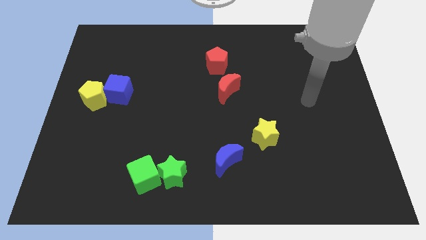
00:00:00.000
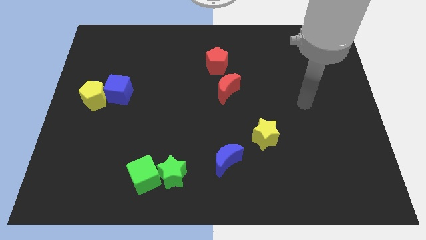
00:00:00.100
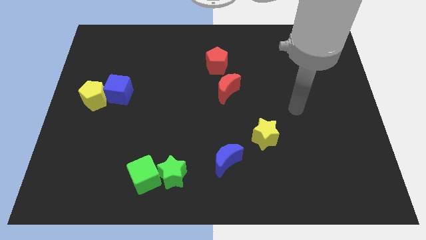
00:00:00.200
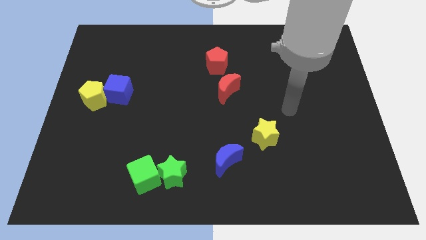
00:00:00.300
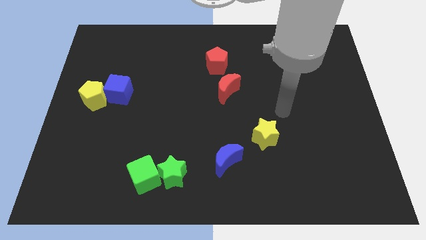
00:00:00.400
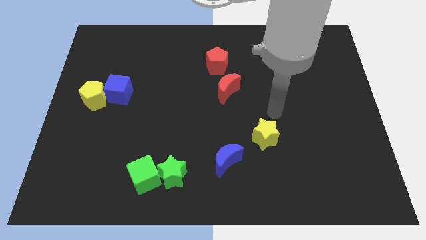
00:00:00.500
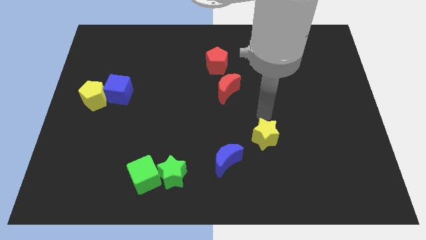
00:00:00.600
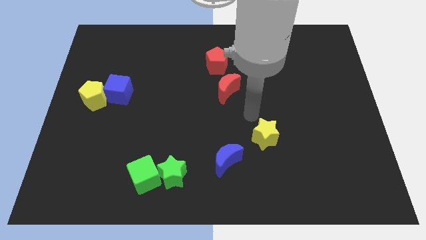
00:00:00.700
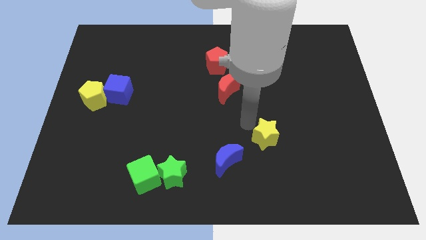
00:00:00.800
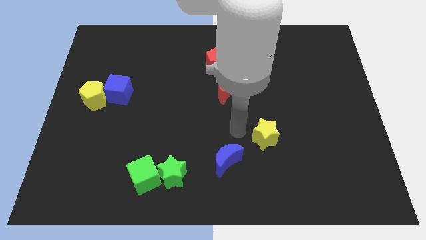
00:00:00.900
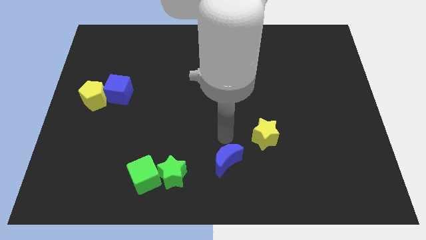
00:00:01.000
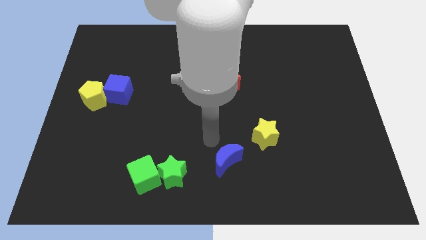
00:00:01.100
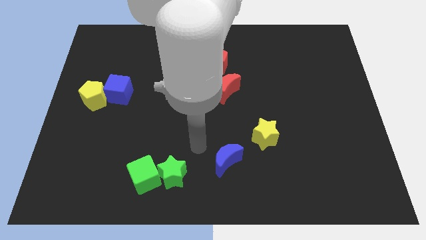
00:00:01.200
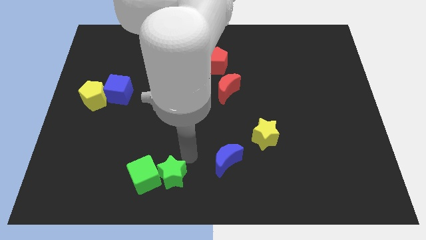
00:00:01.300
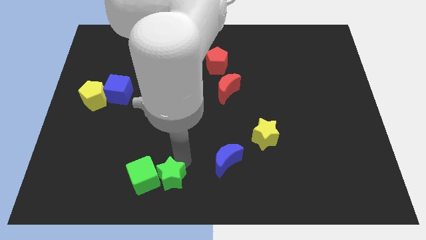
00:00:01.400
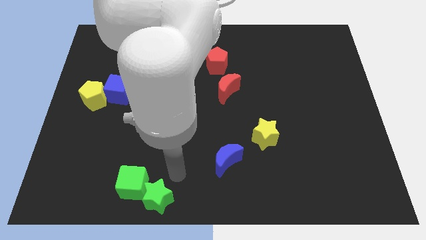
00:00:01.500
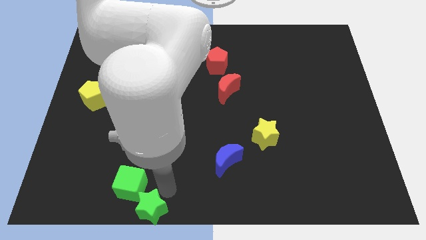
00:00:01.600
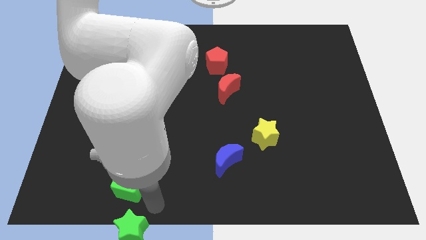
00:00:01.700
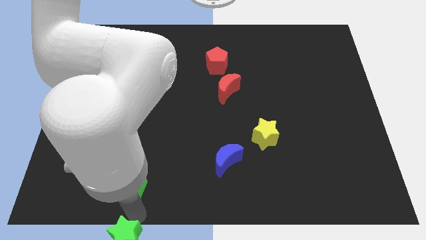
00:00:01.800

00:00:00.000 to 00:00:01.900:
separate the green cube from the green star

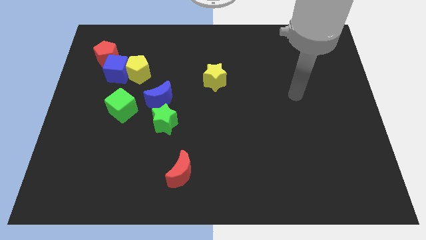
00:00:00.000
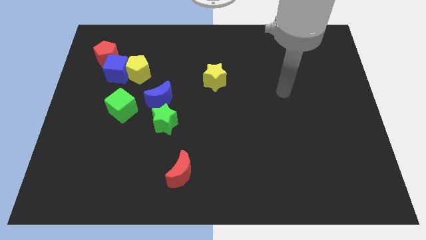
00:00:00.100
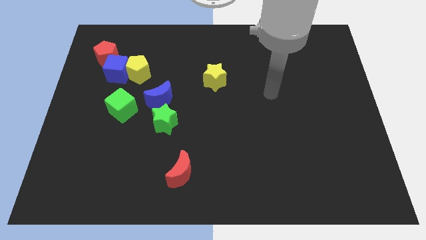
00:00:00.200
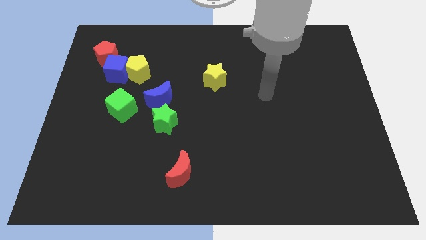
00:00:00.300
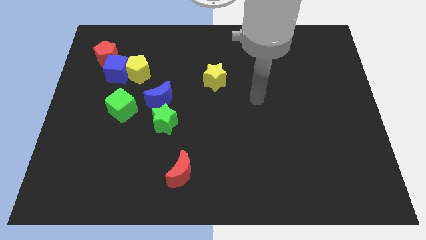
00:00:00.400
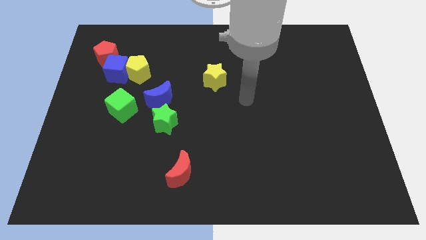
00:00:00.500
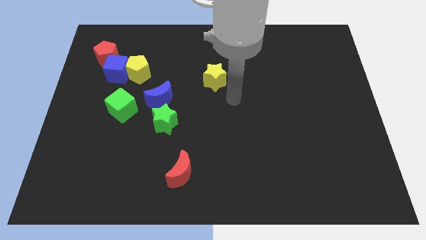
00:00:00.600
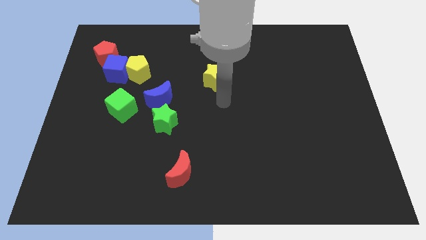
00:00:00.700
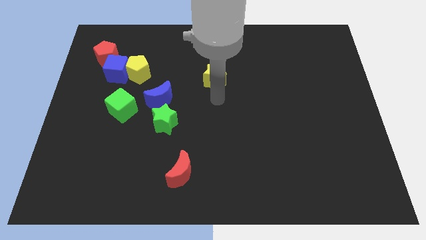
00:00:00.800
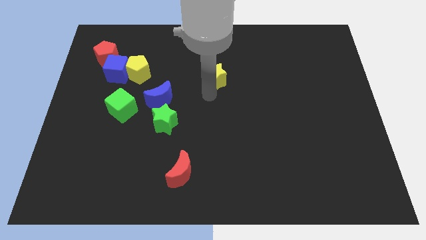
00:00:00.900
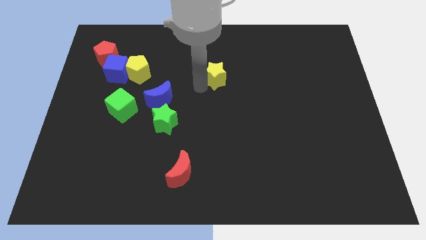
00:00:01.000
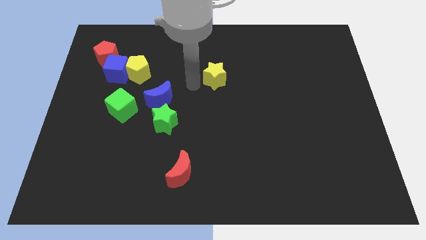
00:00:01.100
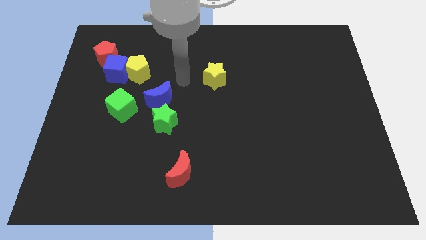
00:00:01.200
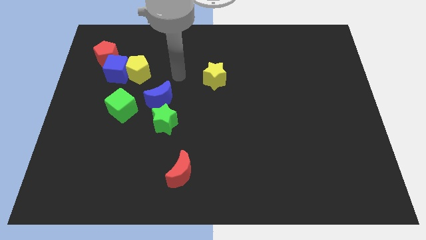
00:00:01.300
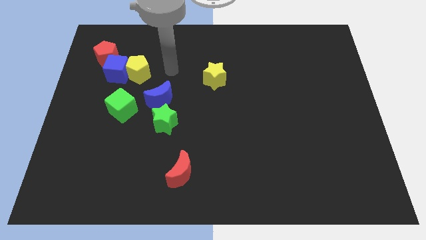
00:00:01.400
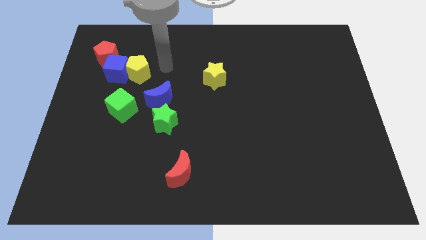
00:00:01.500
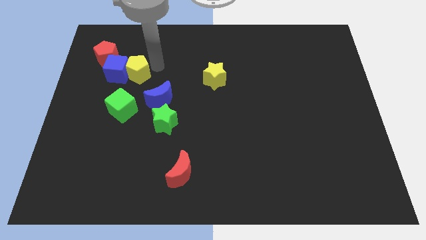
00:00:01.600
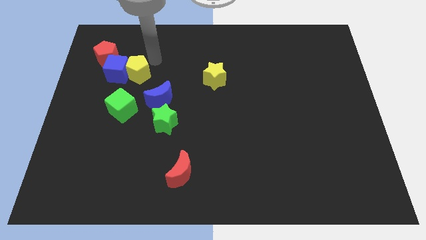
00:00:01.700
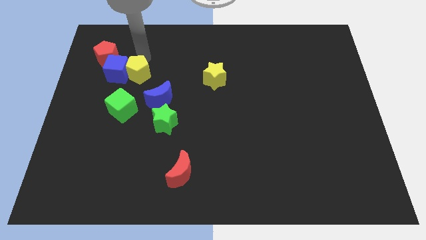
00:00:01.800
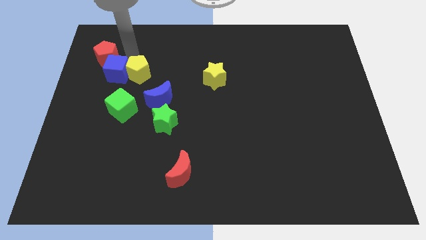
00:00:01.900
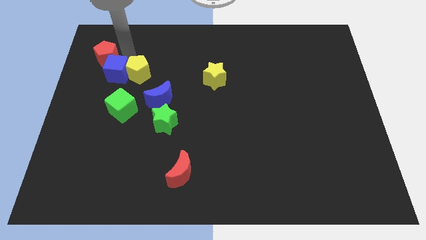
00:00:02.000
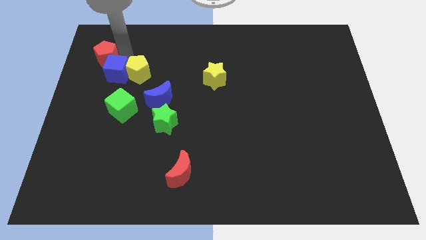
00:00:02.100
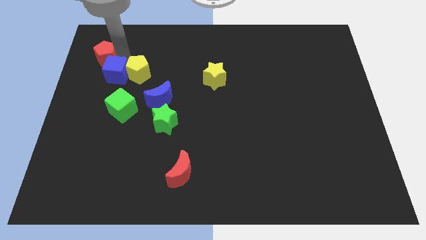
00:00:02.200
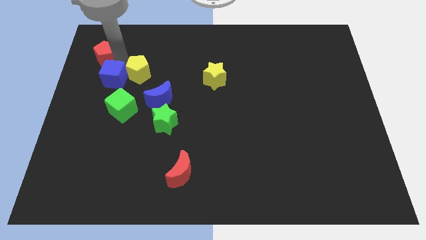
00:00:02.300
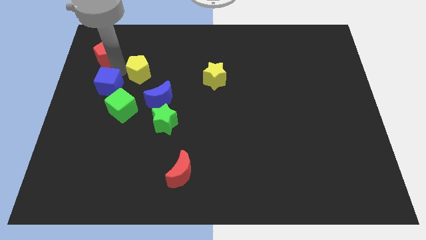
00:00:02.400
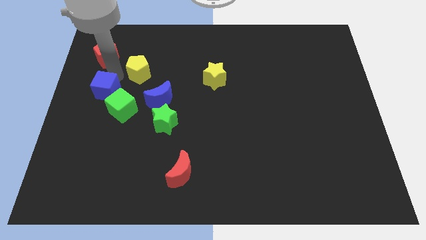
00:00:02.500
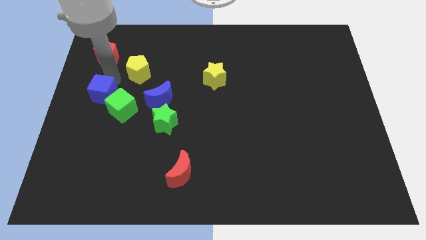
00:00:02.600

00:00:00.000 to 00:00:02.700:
move the blue cube away from the yellow pentagon and red pentagon

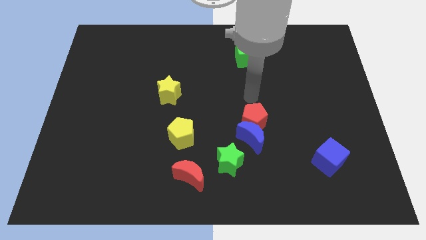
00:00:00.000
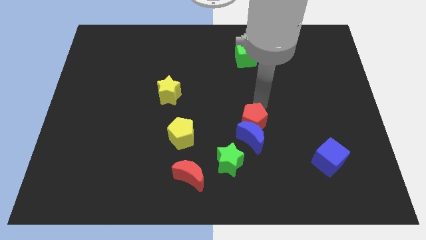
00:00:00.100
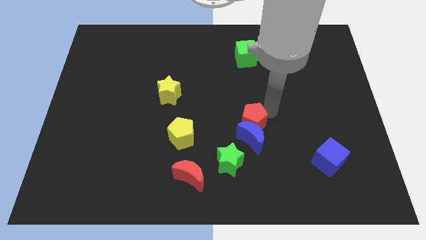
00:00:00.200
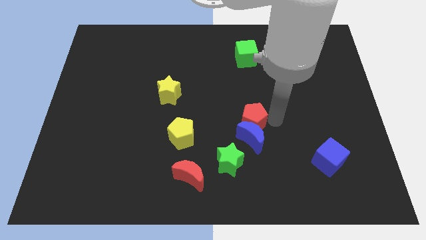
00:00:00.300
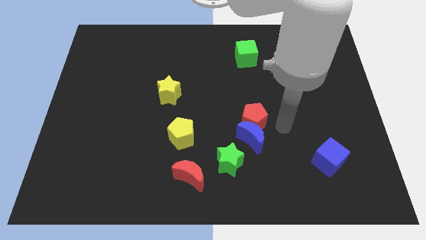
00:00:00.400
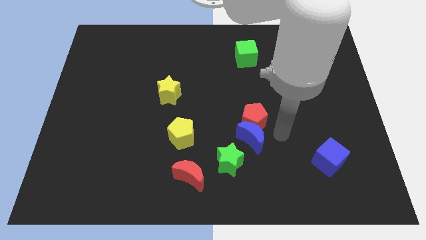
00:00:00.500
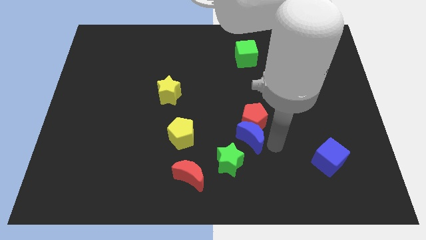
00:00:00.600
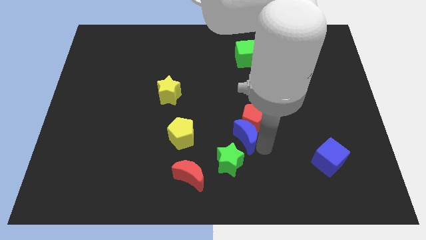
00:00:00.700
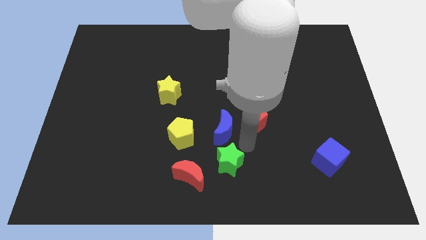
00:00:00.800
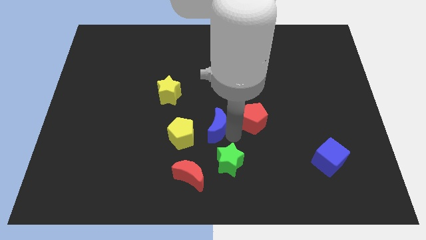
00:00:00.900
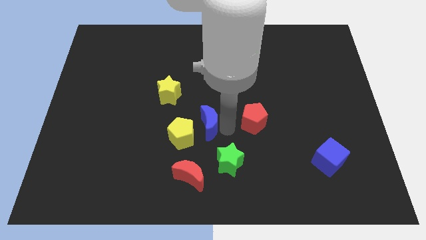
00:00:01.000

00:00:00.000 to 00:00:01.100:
pull the red pentagon apart from the blue moon

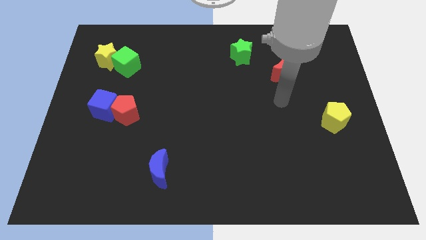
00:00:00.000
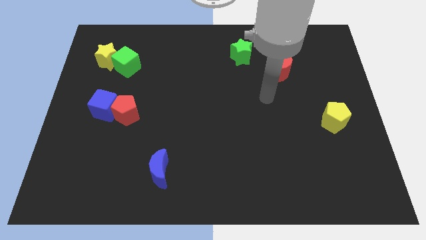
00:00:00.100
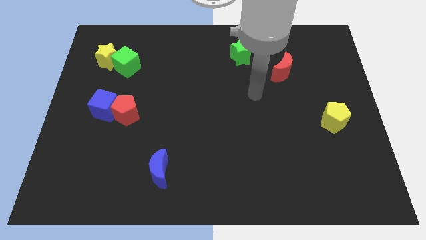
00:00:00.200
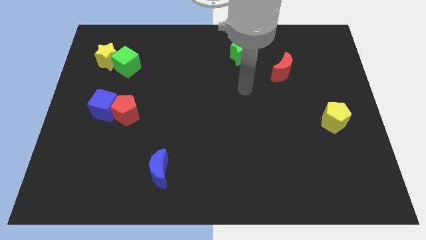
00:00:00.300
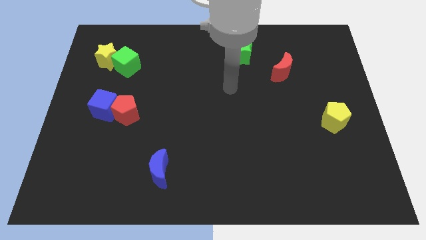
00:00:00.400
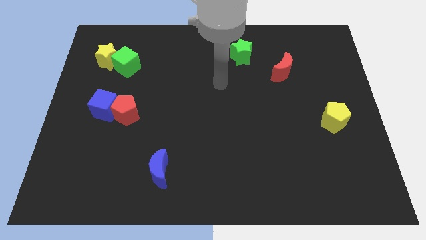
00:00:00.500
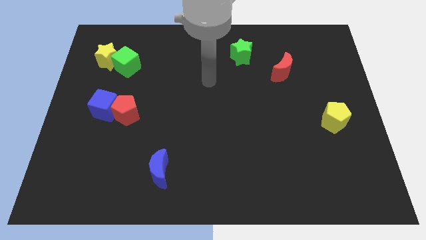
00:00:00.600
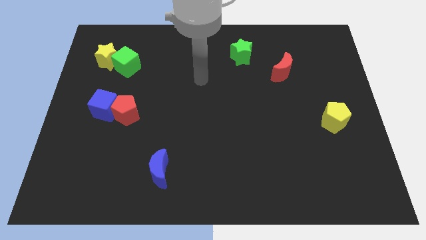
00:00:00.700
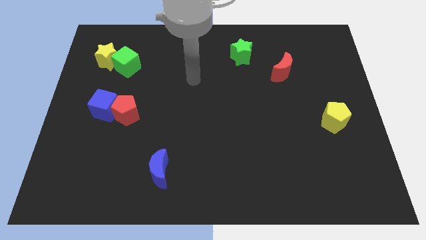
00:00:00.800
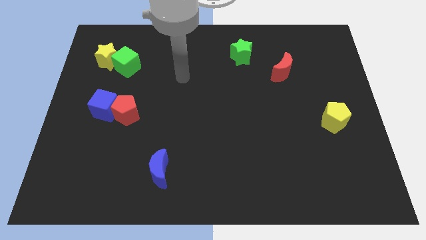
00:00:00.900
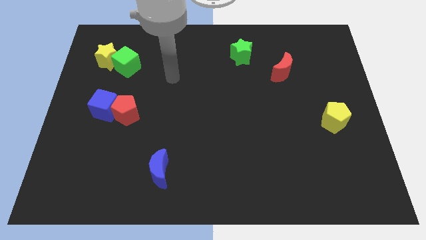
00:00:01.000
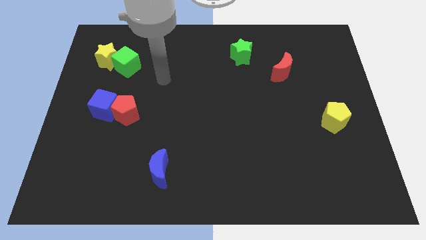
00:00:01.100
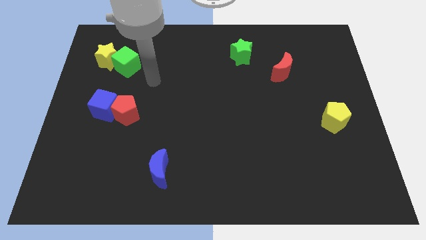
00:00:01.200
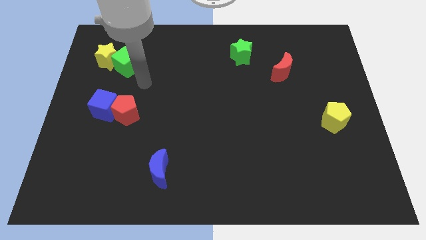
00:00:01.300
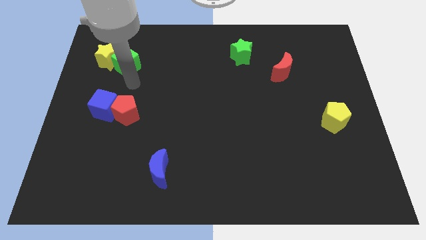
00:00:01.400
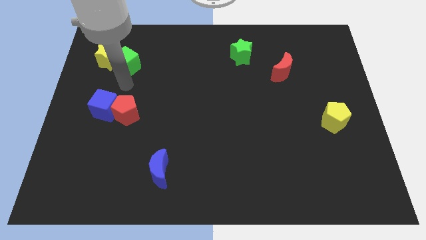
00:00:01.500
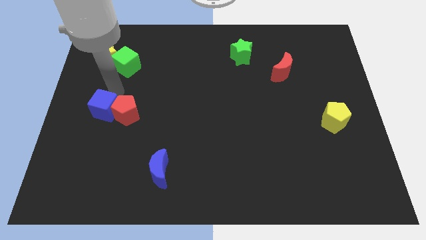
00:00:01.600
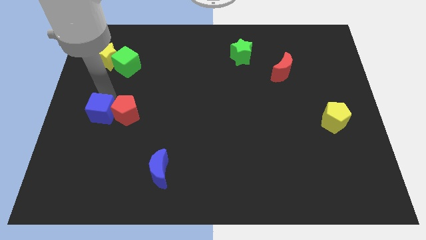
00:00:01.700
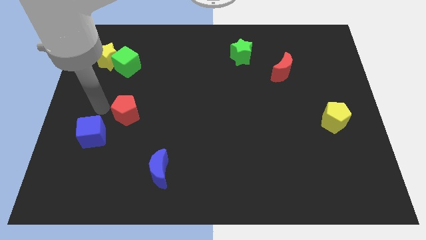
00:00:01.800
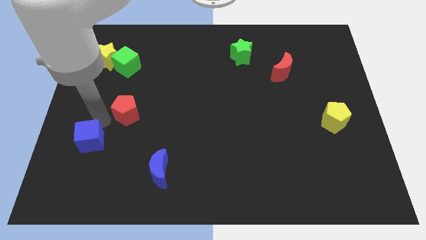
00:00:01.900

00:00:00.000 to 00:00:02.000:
separate the red pentagon from the blue cube

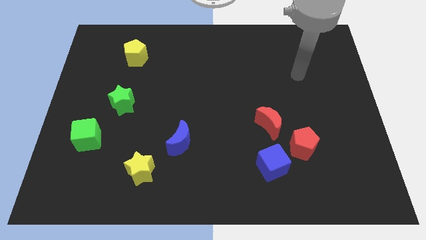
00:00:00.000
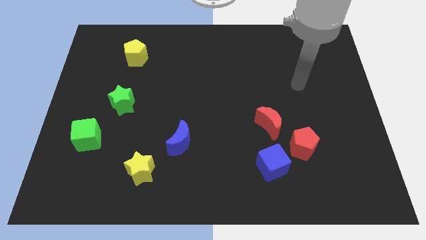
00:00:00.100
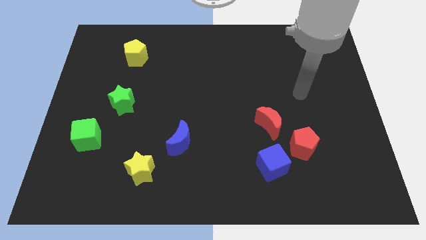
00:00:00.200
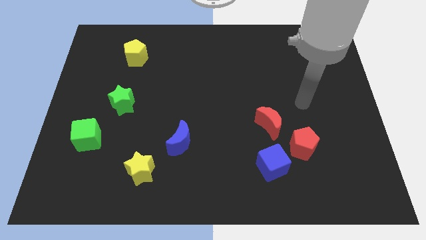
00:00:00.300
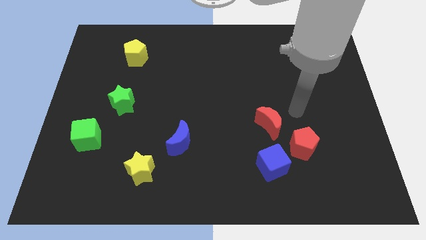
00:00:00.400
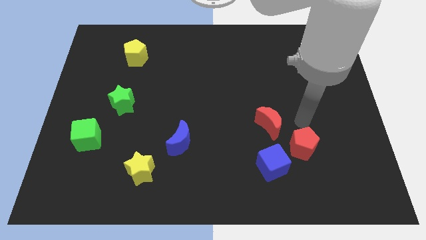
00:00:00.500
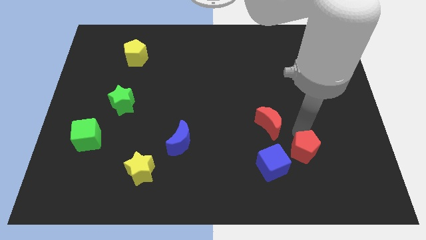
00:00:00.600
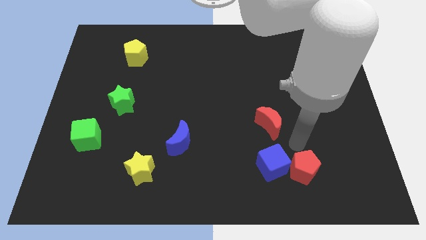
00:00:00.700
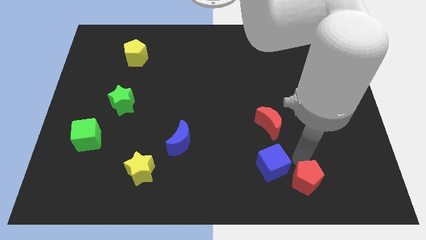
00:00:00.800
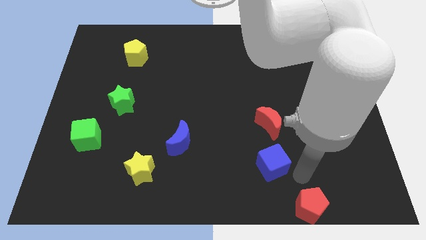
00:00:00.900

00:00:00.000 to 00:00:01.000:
pull the blue cube apart from the red pentagon

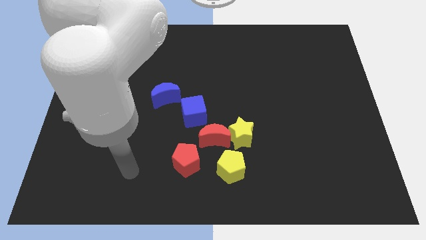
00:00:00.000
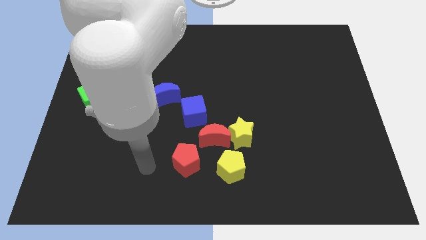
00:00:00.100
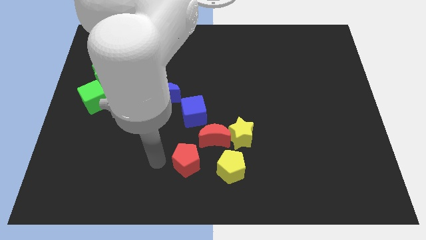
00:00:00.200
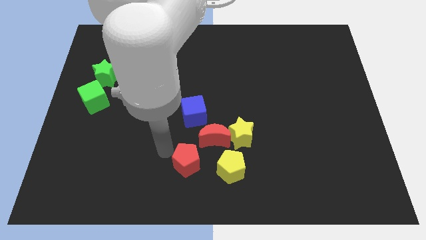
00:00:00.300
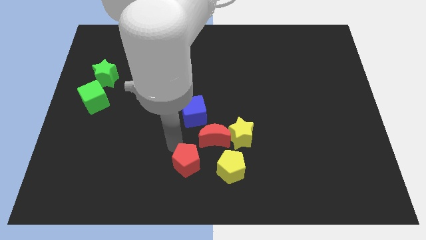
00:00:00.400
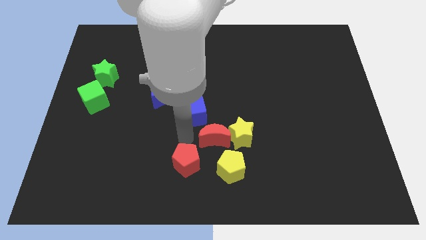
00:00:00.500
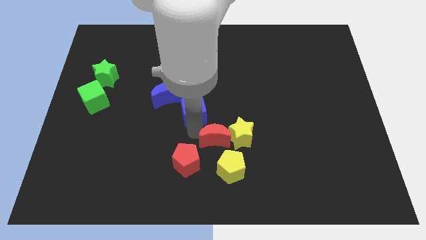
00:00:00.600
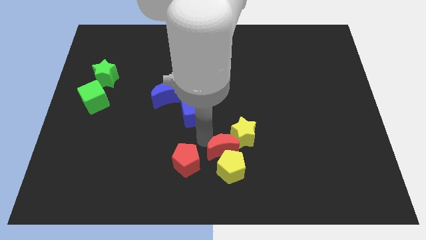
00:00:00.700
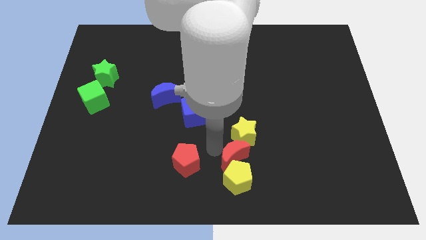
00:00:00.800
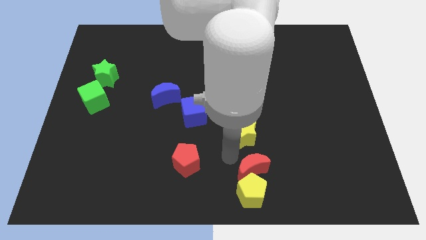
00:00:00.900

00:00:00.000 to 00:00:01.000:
separate the yellow star from the red moon and yellow pentagon
